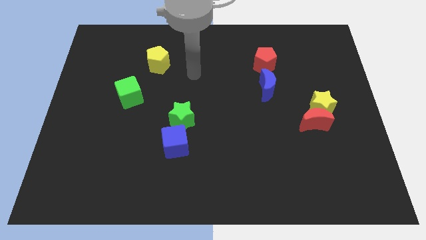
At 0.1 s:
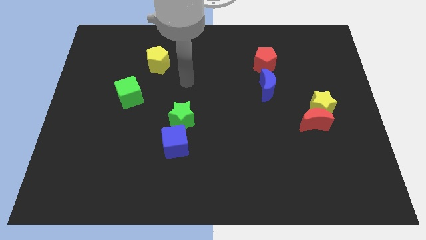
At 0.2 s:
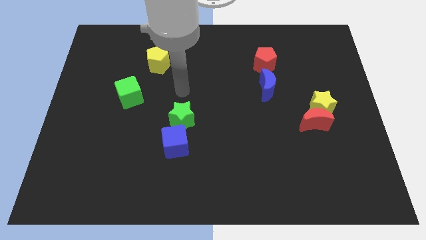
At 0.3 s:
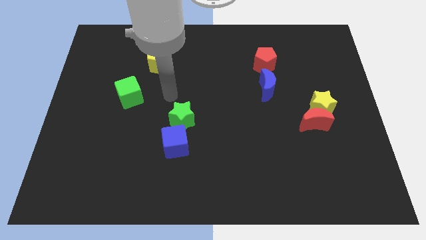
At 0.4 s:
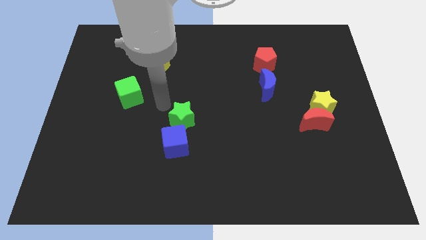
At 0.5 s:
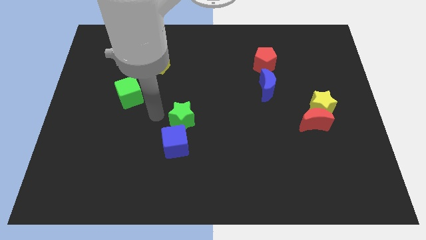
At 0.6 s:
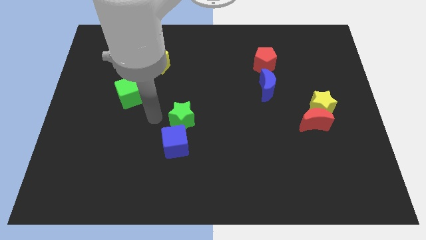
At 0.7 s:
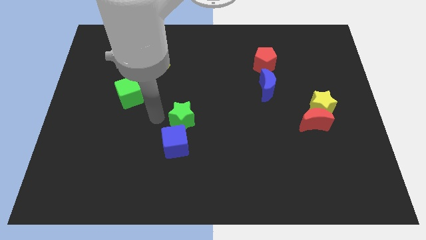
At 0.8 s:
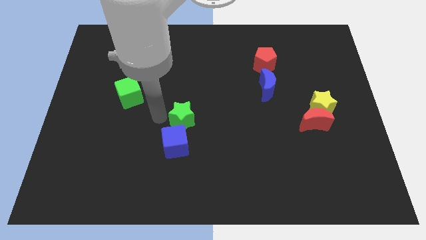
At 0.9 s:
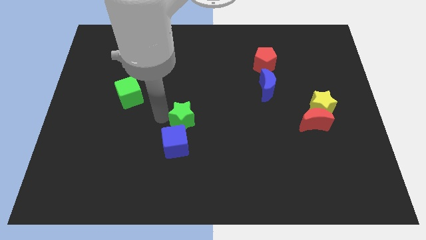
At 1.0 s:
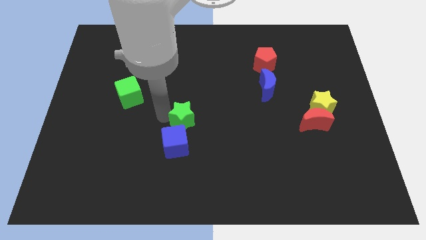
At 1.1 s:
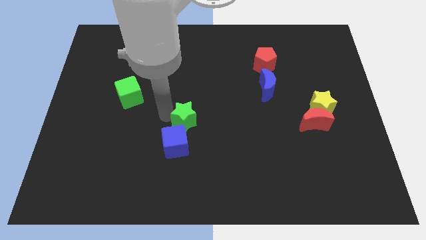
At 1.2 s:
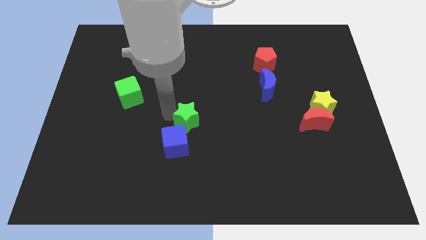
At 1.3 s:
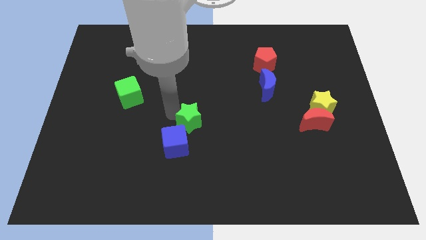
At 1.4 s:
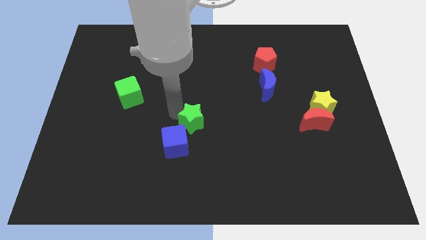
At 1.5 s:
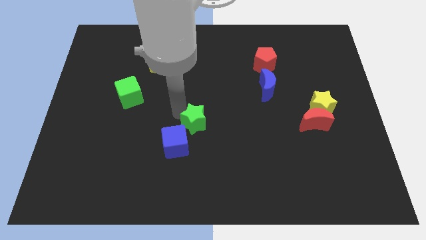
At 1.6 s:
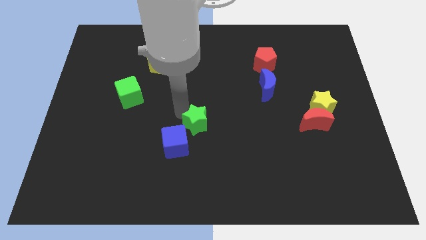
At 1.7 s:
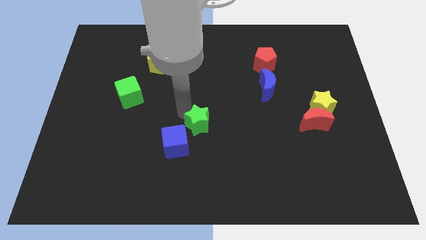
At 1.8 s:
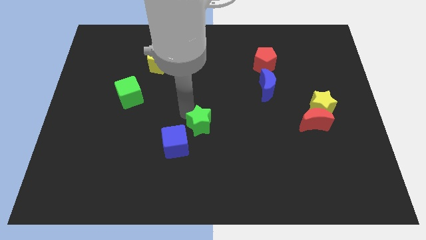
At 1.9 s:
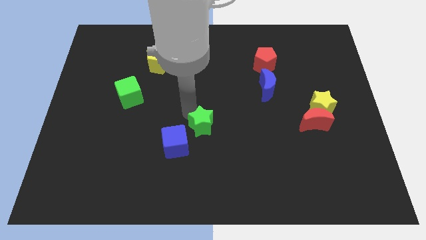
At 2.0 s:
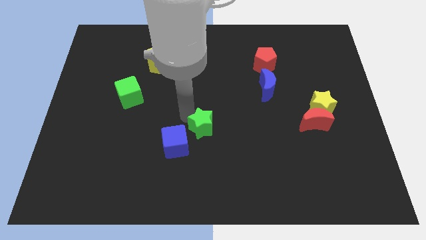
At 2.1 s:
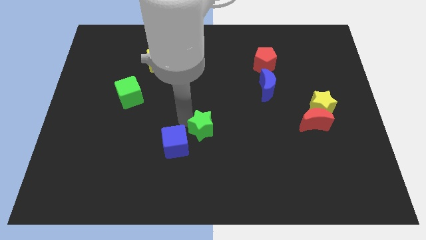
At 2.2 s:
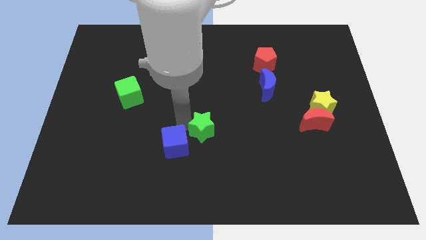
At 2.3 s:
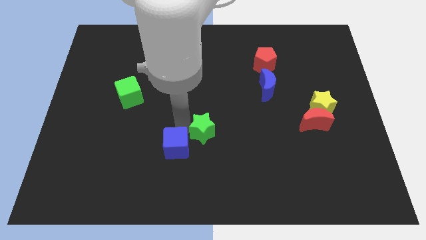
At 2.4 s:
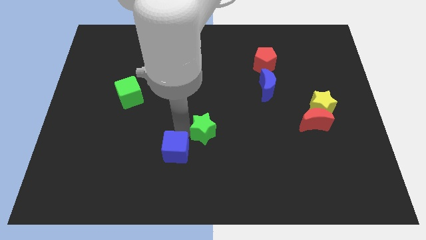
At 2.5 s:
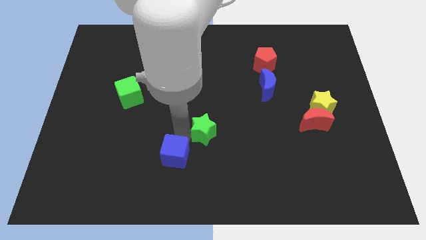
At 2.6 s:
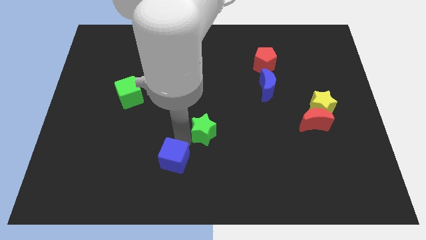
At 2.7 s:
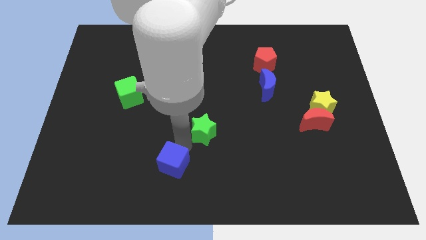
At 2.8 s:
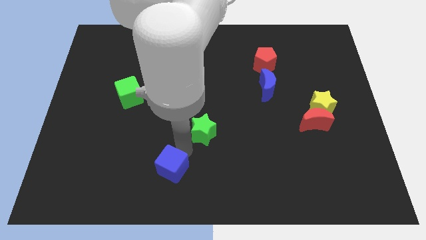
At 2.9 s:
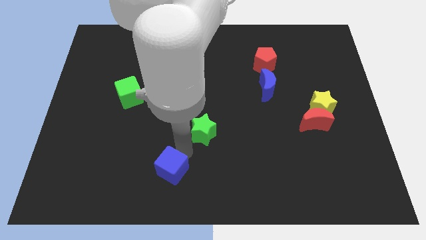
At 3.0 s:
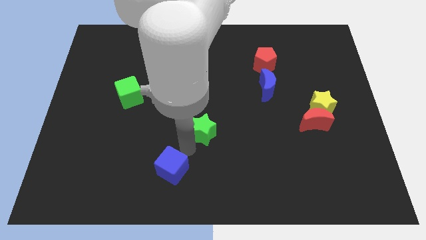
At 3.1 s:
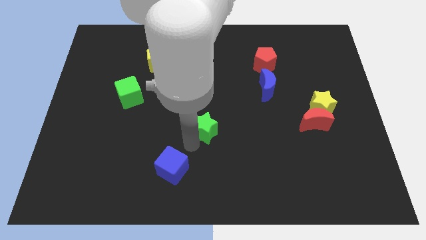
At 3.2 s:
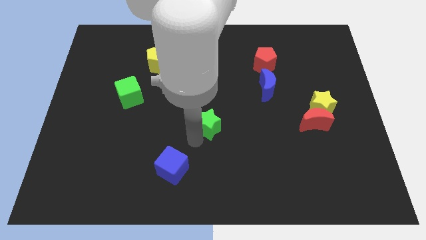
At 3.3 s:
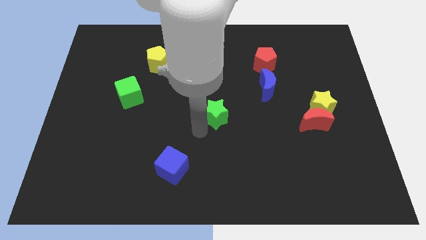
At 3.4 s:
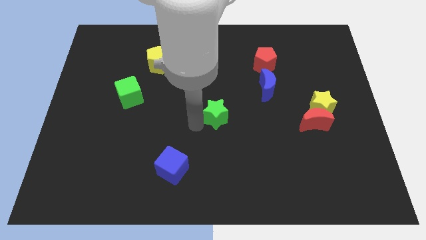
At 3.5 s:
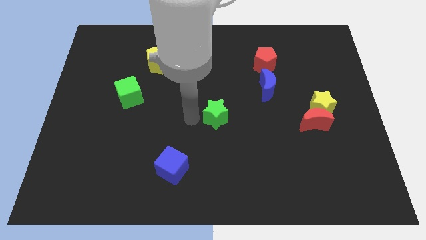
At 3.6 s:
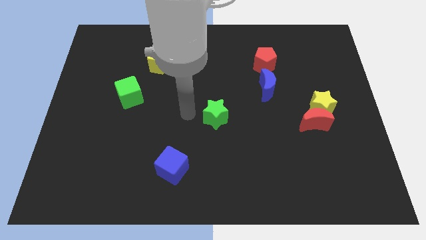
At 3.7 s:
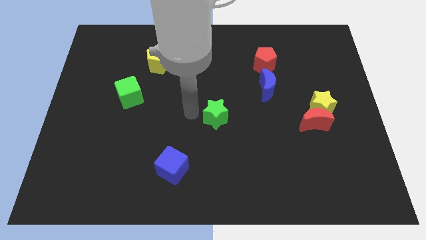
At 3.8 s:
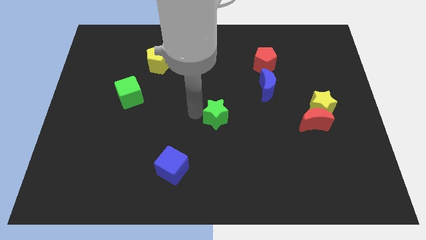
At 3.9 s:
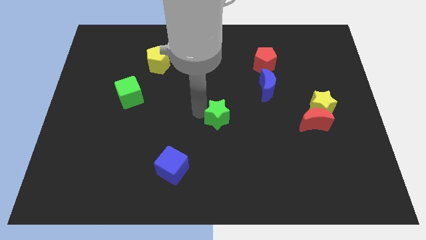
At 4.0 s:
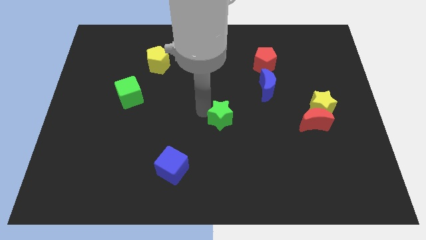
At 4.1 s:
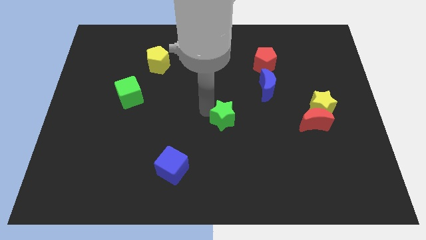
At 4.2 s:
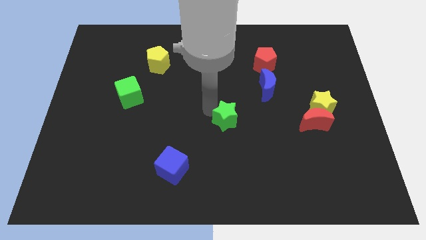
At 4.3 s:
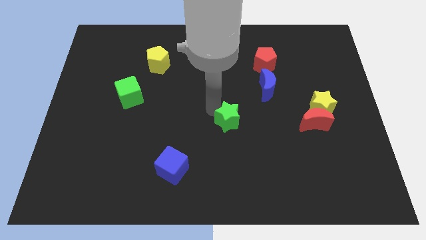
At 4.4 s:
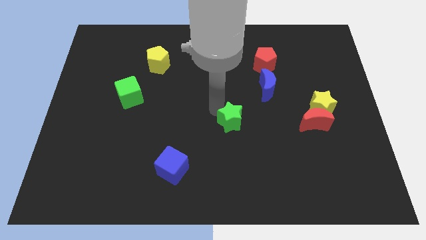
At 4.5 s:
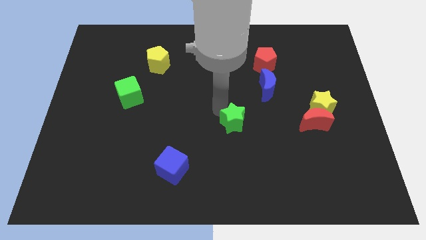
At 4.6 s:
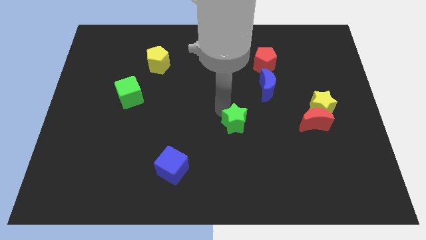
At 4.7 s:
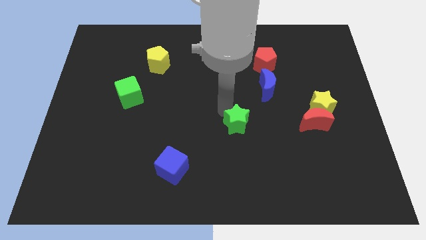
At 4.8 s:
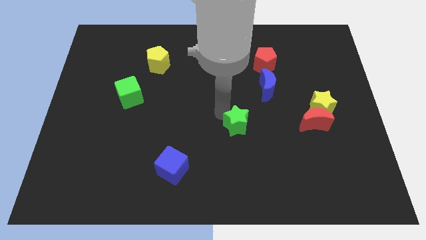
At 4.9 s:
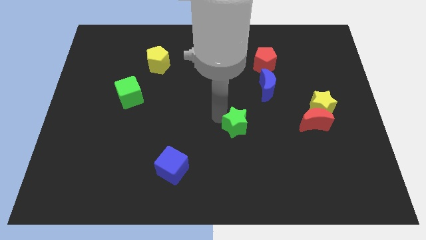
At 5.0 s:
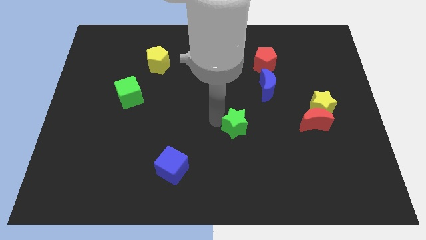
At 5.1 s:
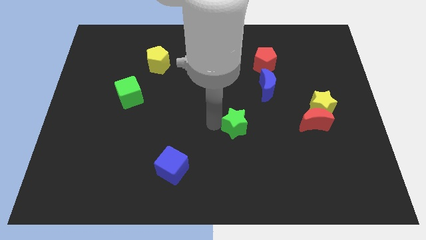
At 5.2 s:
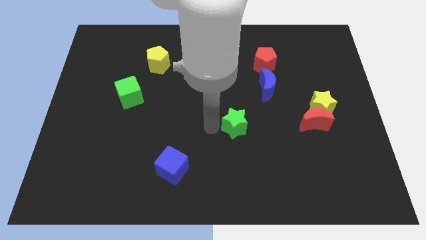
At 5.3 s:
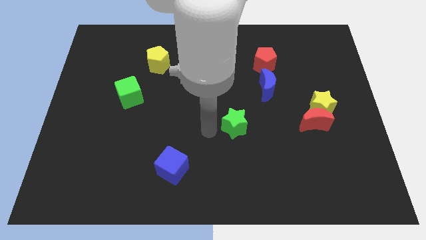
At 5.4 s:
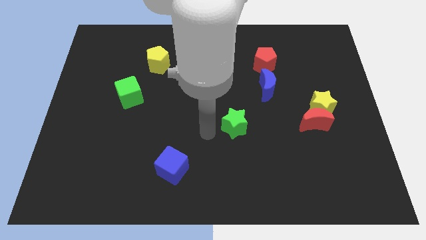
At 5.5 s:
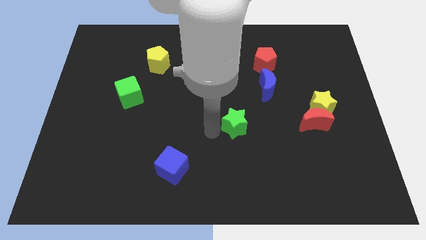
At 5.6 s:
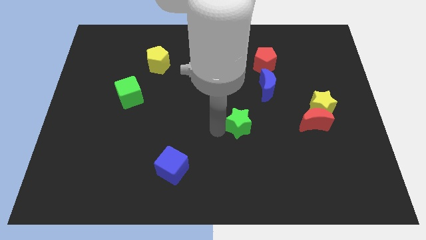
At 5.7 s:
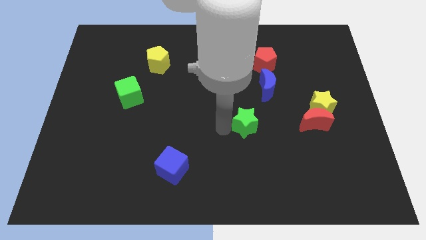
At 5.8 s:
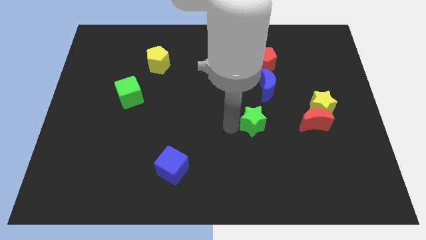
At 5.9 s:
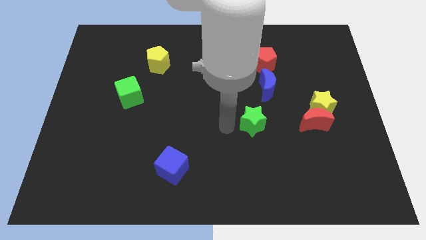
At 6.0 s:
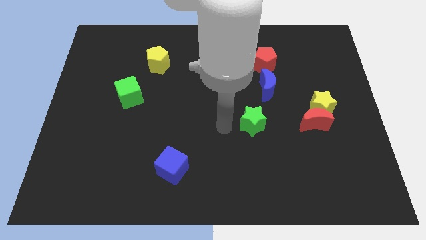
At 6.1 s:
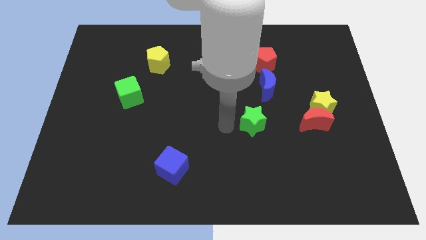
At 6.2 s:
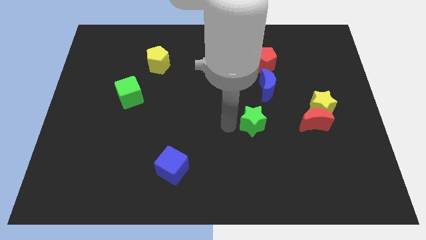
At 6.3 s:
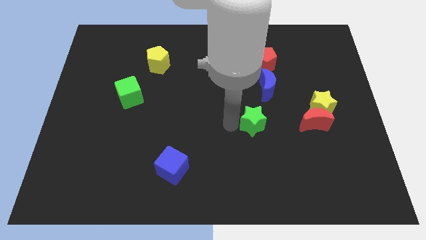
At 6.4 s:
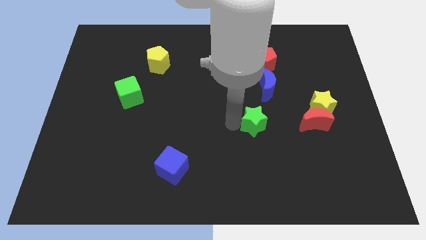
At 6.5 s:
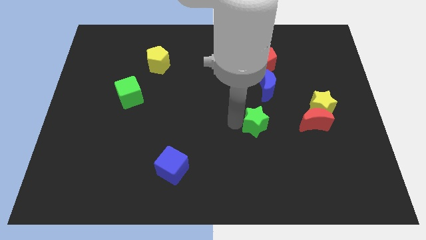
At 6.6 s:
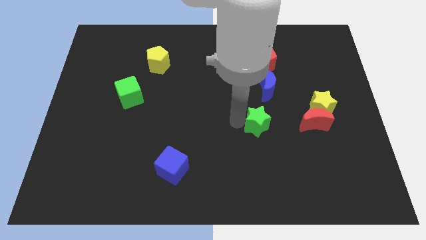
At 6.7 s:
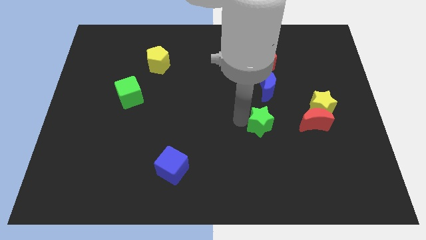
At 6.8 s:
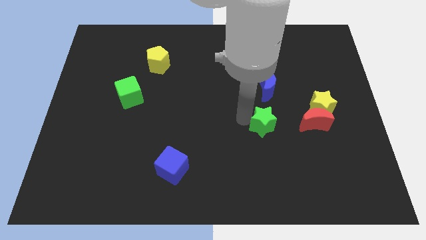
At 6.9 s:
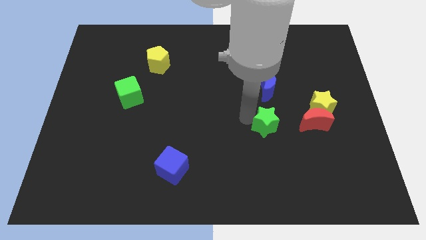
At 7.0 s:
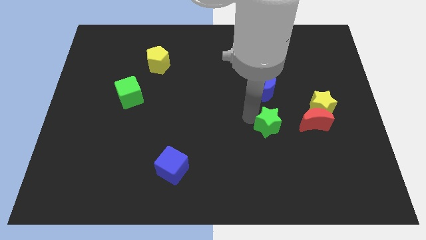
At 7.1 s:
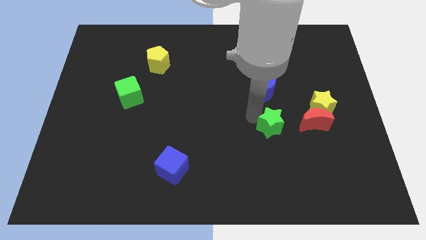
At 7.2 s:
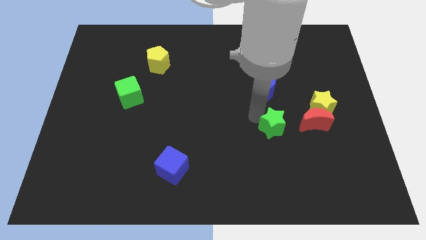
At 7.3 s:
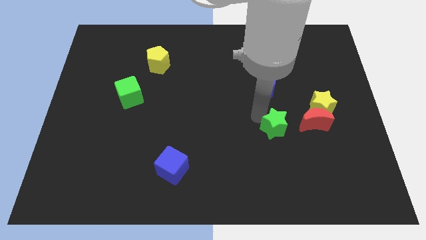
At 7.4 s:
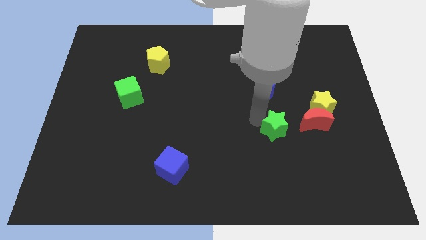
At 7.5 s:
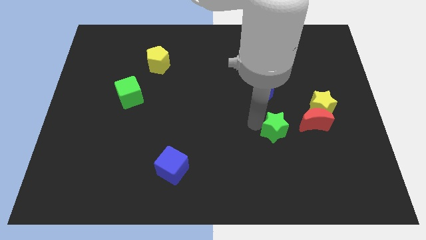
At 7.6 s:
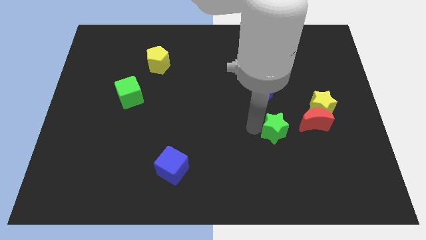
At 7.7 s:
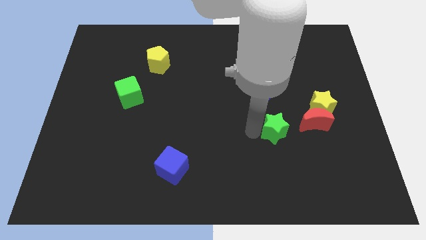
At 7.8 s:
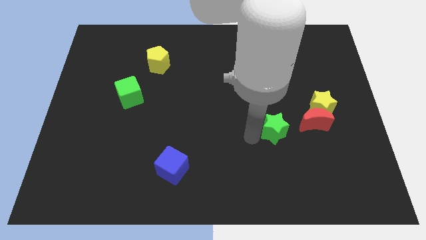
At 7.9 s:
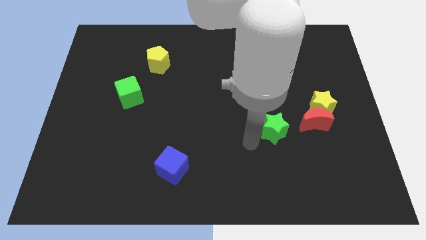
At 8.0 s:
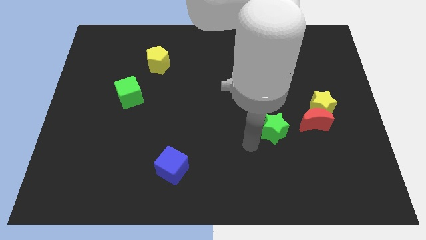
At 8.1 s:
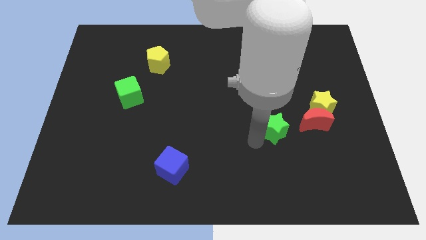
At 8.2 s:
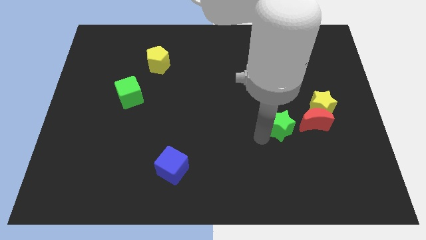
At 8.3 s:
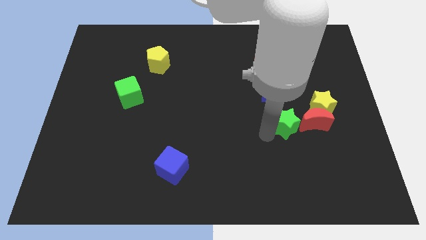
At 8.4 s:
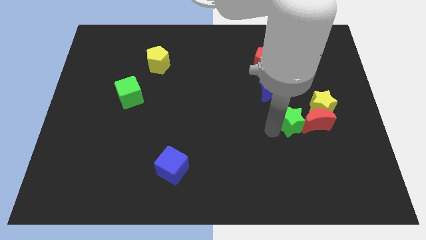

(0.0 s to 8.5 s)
move the green star towards the red moon
